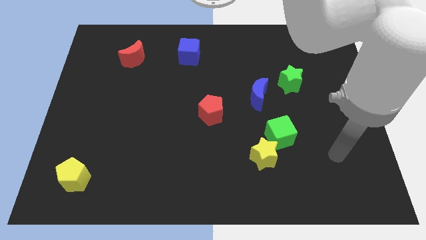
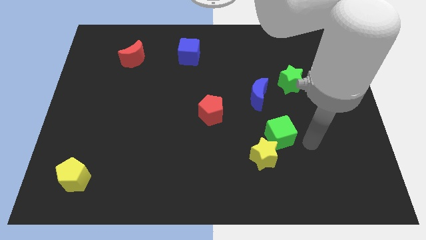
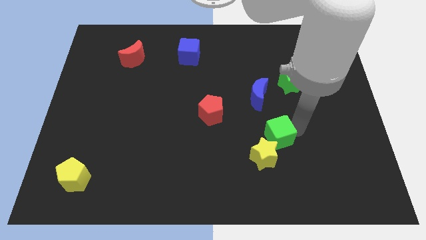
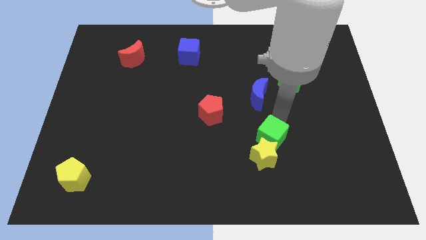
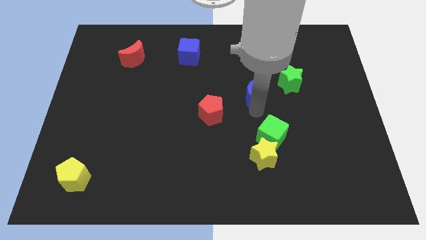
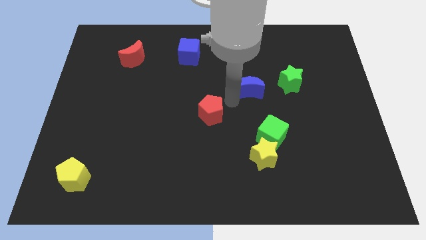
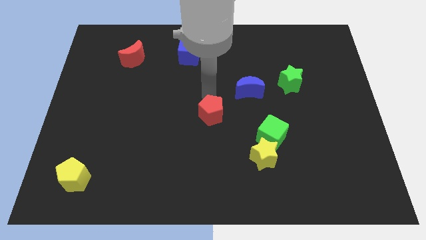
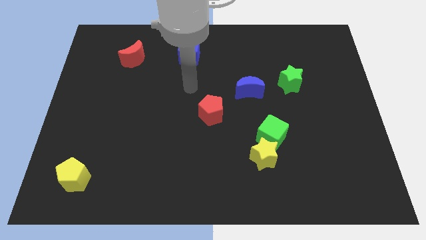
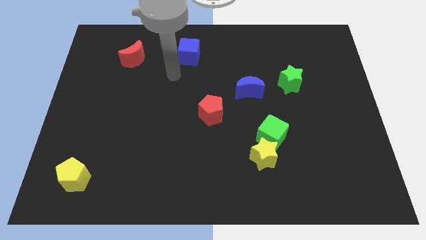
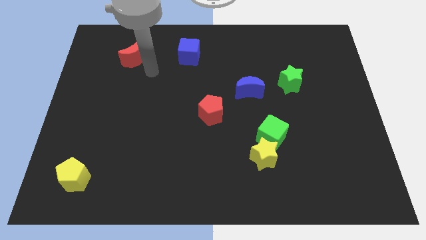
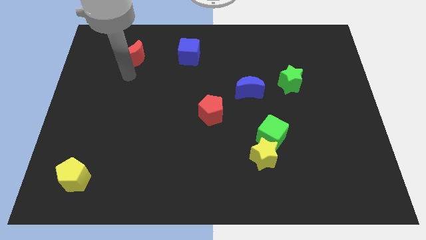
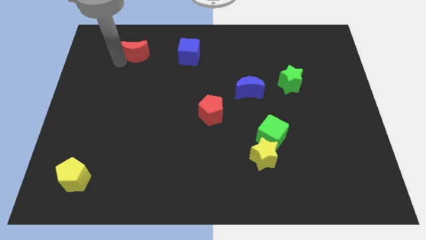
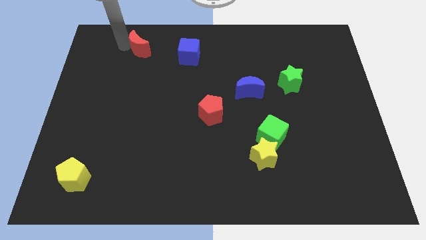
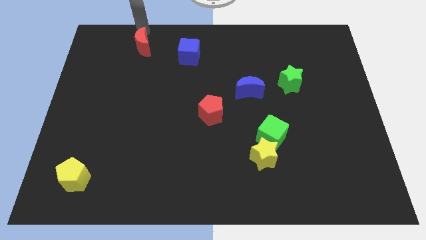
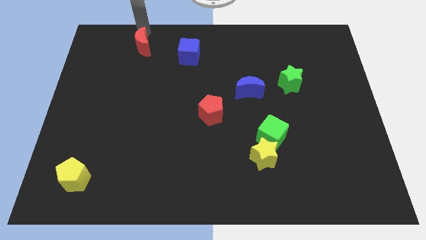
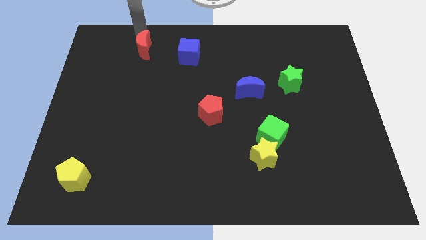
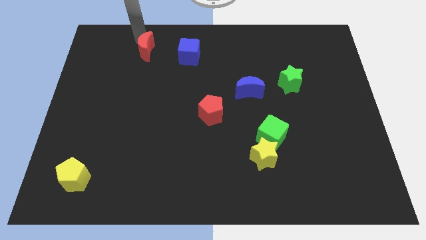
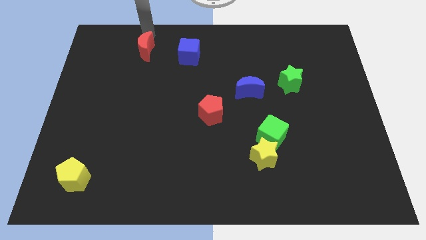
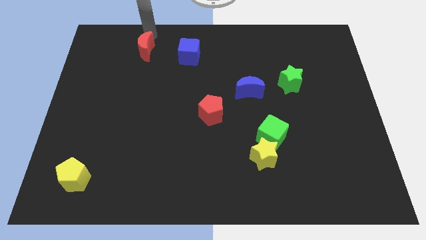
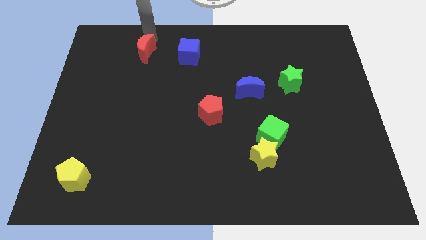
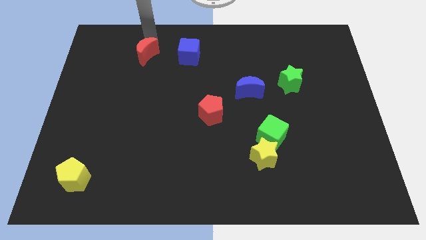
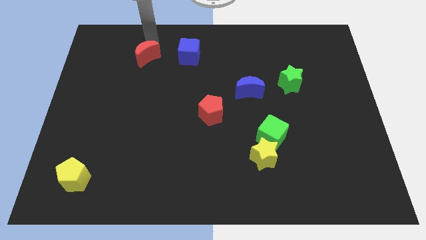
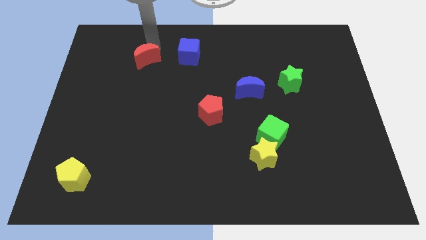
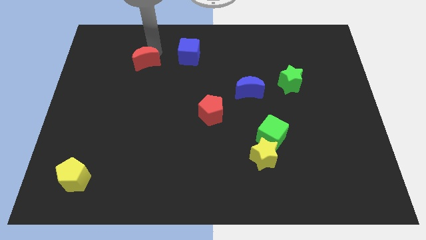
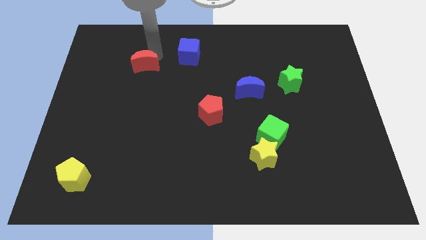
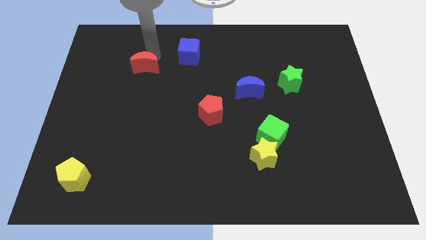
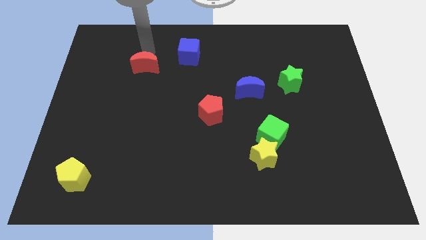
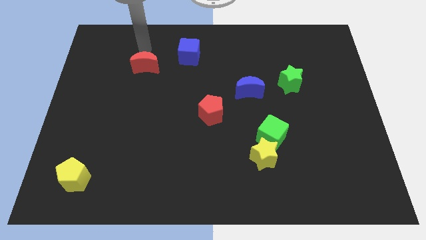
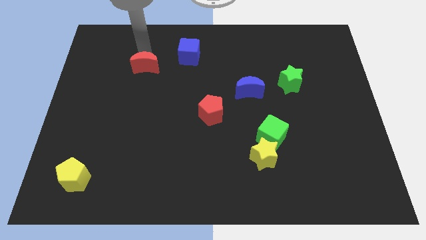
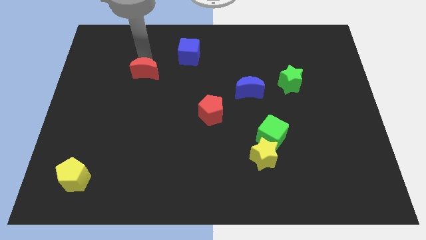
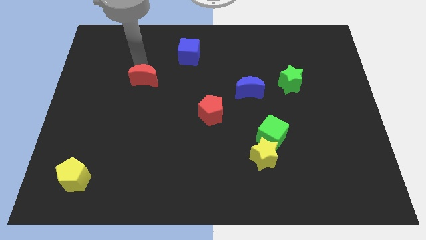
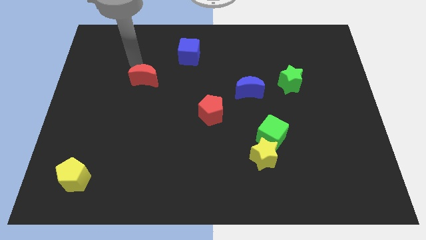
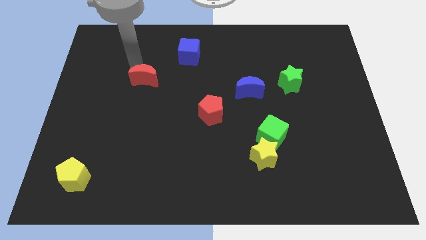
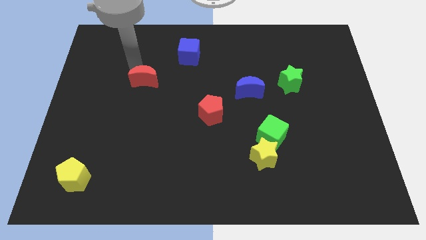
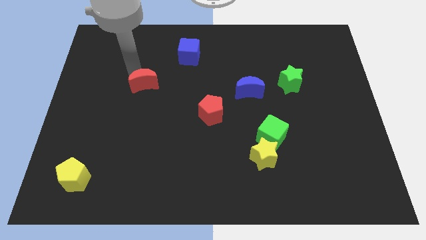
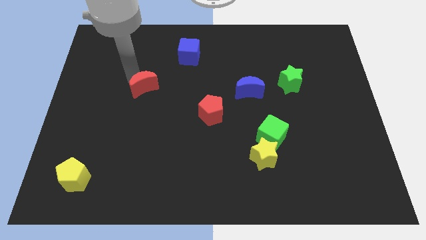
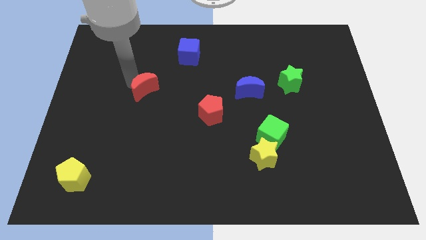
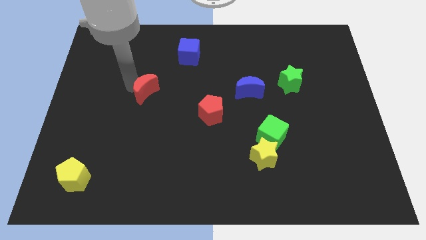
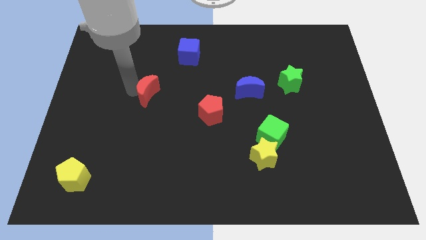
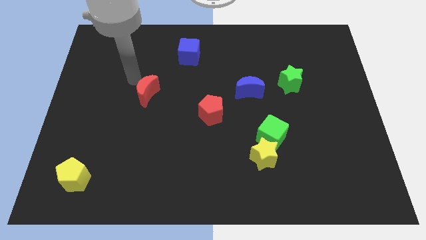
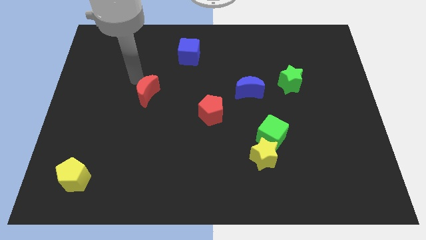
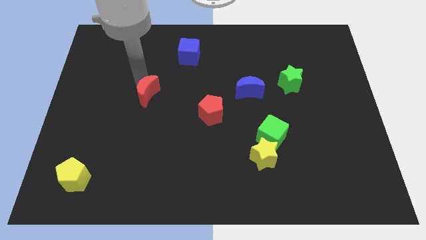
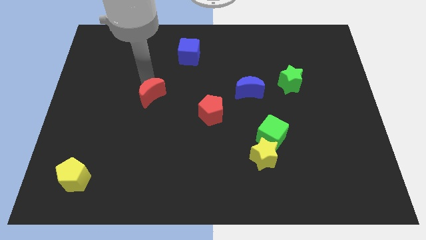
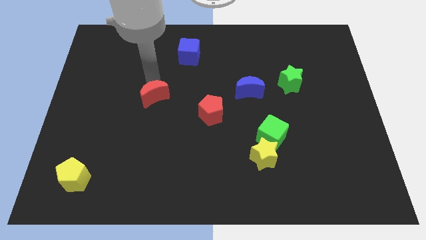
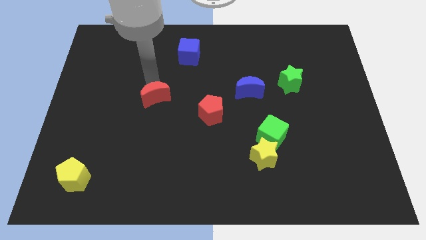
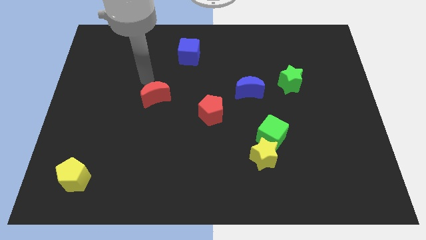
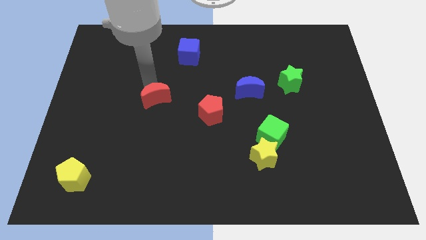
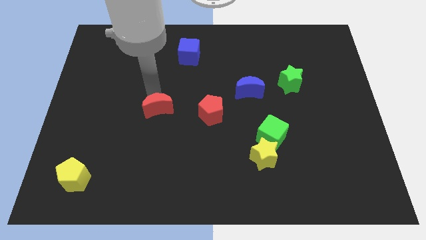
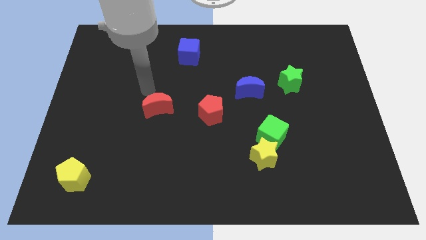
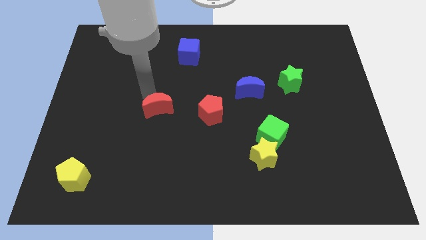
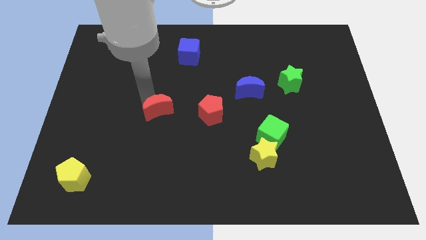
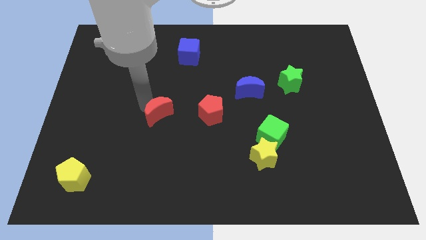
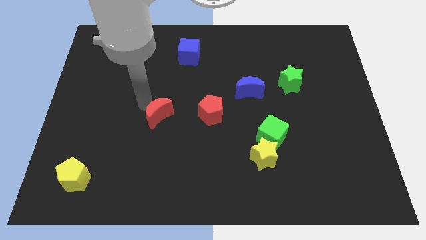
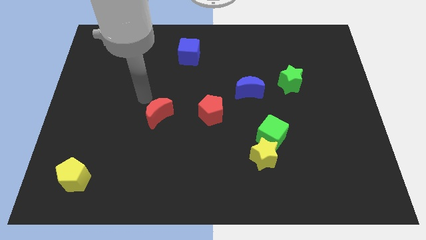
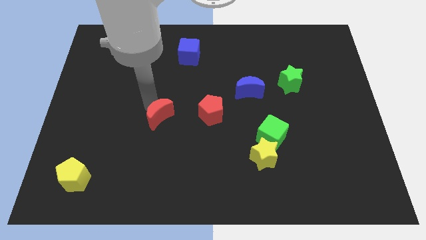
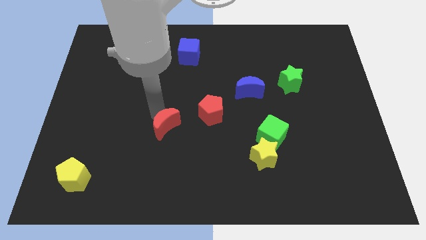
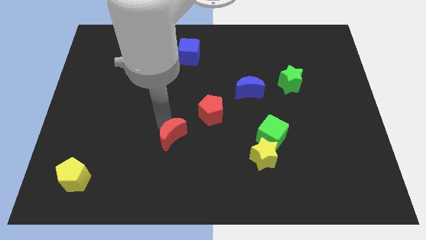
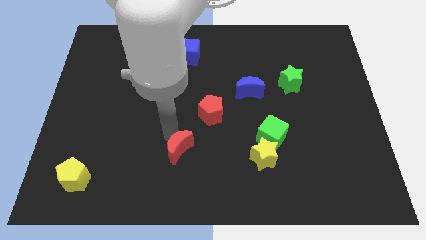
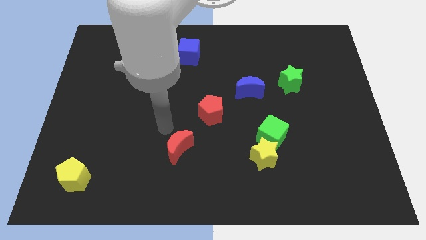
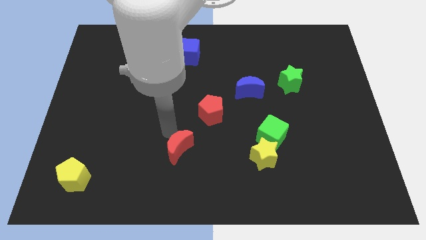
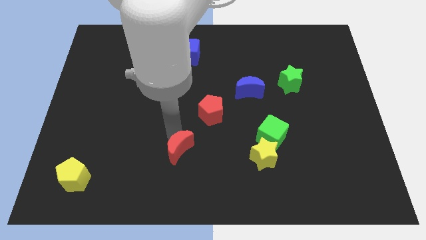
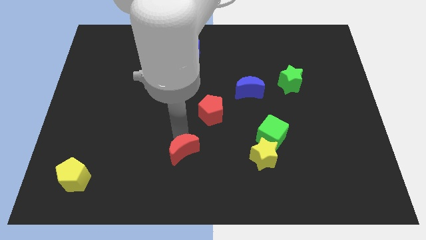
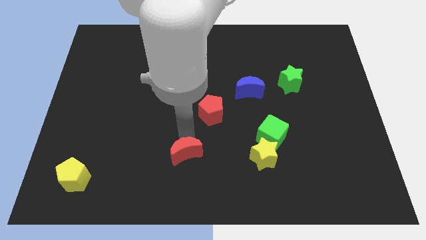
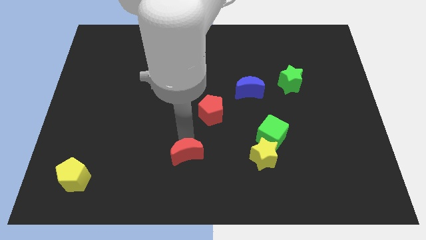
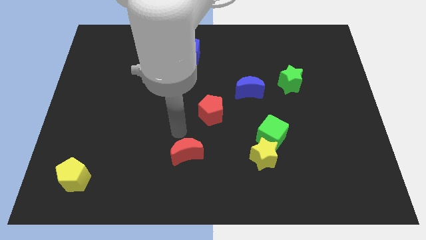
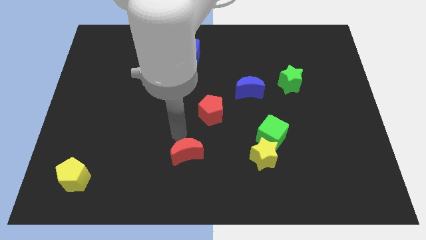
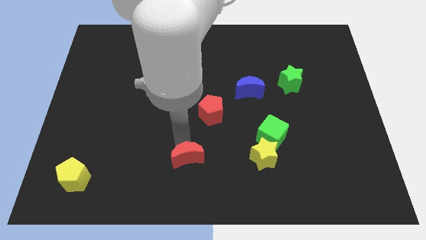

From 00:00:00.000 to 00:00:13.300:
slide the red moon to the bottom
